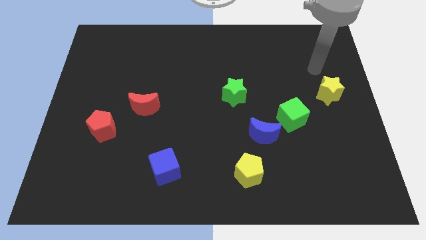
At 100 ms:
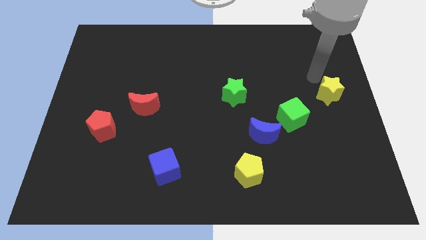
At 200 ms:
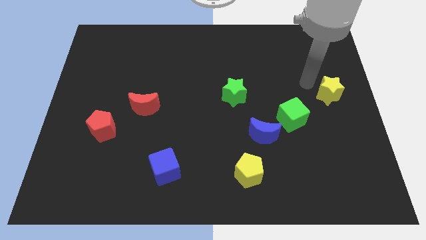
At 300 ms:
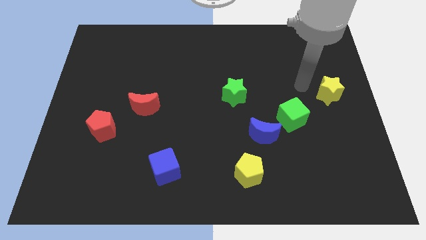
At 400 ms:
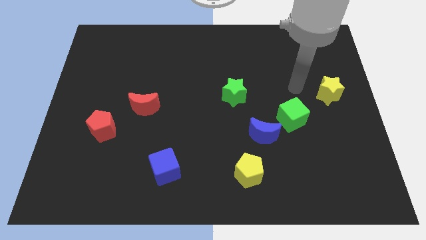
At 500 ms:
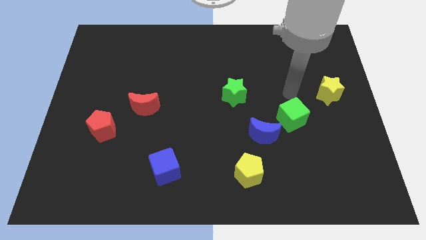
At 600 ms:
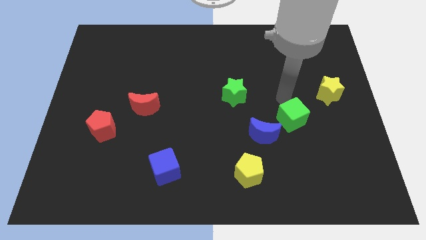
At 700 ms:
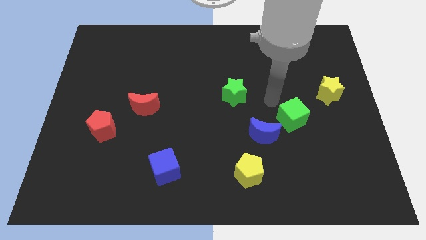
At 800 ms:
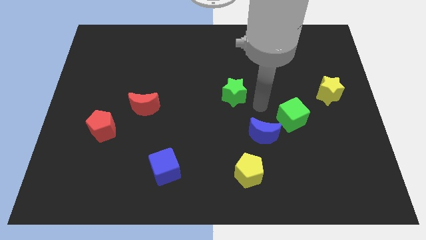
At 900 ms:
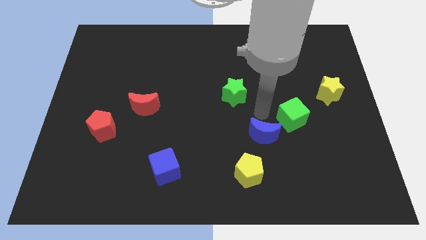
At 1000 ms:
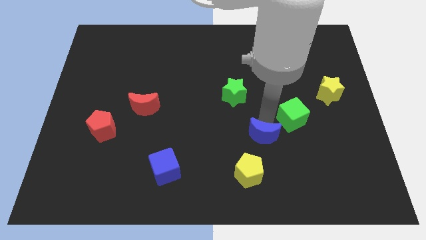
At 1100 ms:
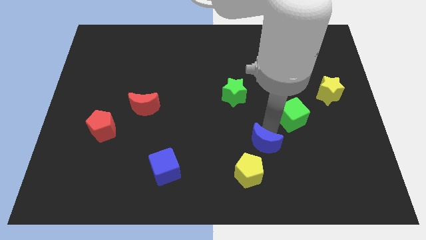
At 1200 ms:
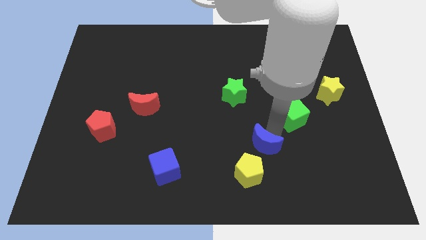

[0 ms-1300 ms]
move the green cube away from the blue moon

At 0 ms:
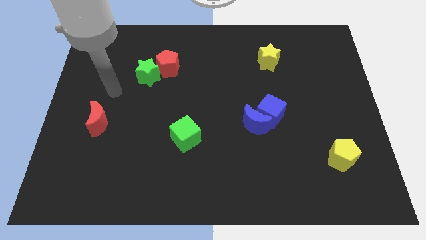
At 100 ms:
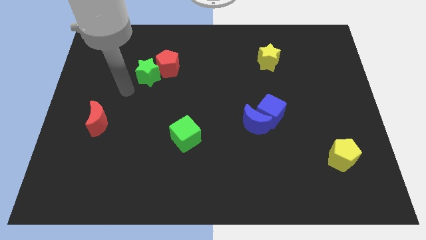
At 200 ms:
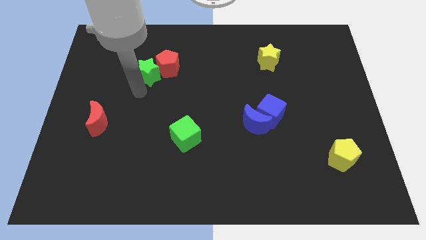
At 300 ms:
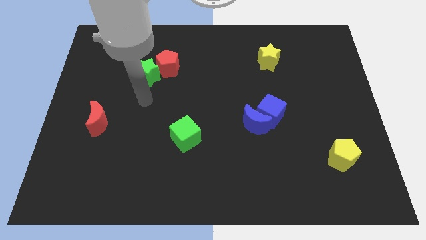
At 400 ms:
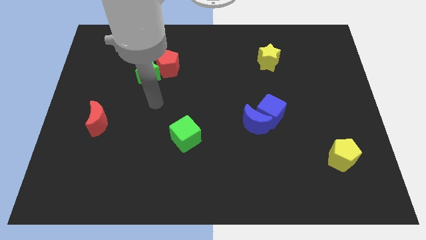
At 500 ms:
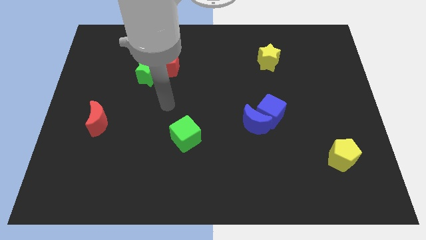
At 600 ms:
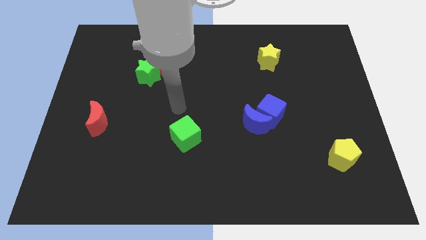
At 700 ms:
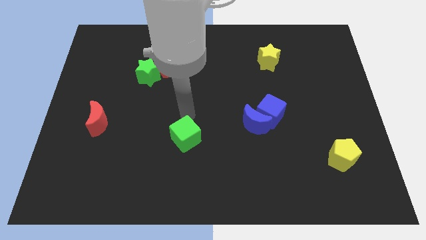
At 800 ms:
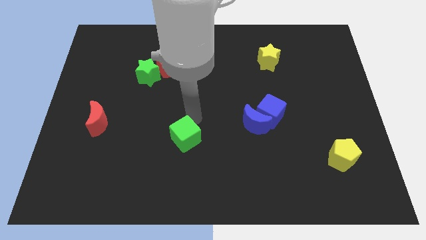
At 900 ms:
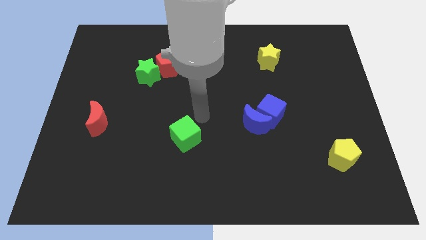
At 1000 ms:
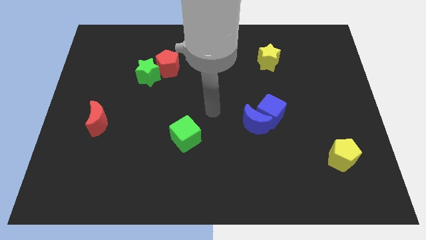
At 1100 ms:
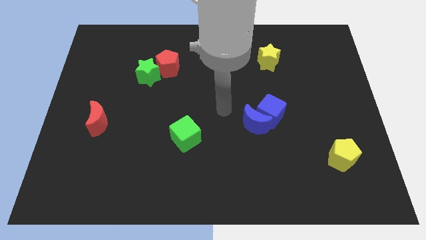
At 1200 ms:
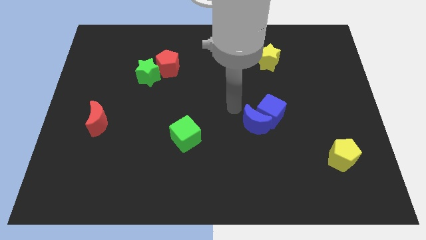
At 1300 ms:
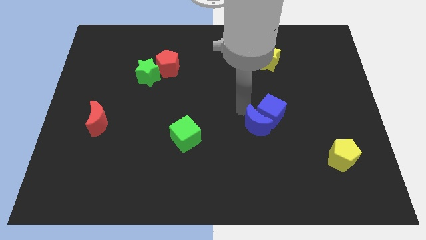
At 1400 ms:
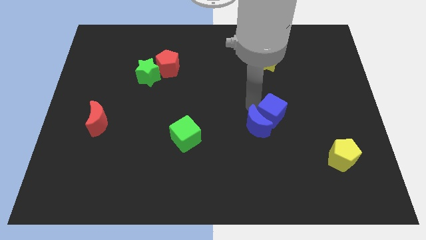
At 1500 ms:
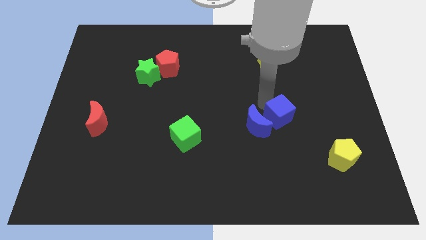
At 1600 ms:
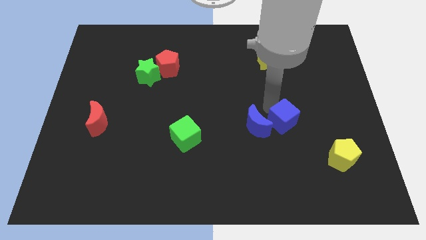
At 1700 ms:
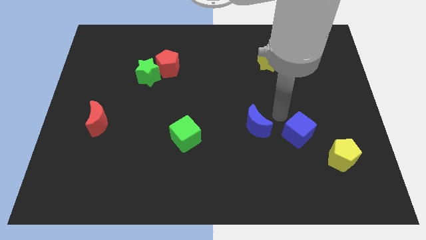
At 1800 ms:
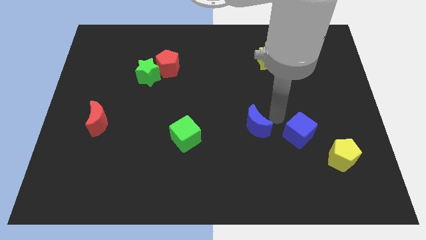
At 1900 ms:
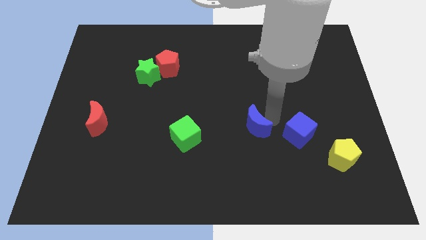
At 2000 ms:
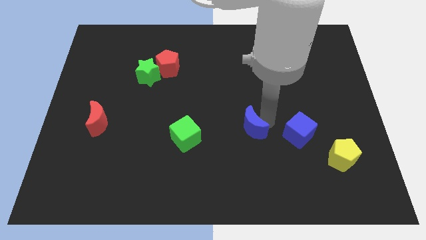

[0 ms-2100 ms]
separate the blue moon from the blue cube

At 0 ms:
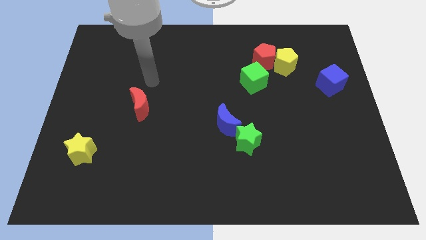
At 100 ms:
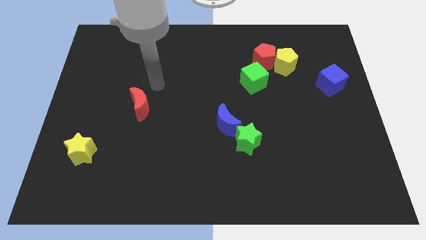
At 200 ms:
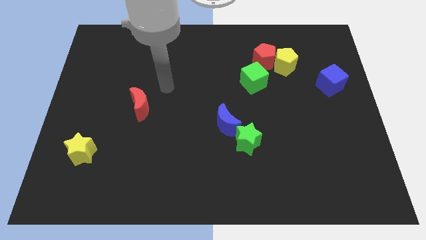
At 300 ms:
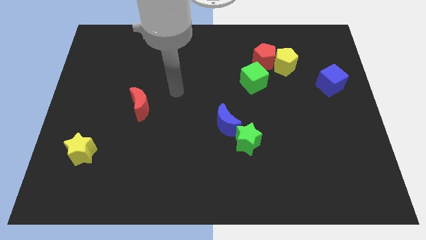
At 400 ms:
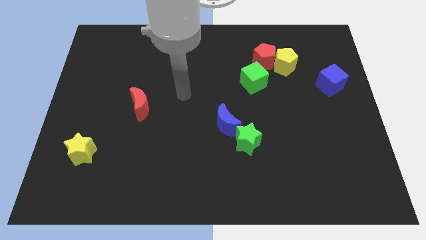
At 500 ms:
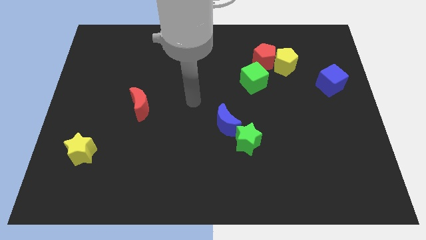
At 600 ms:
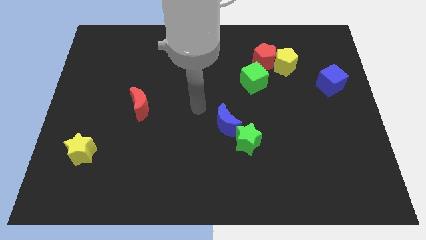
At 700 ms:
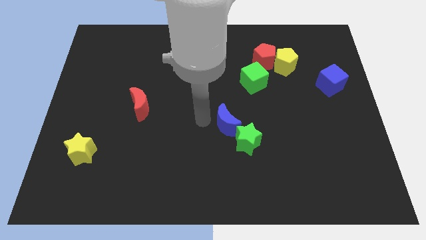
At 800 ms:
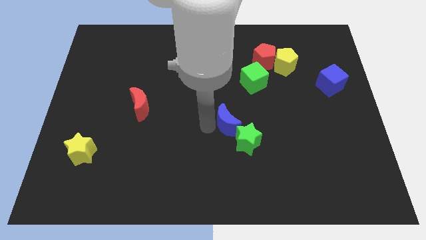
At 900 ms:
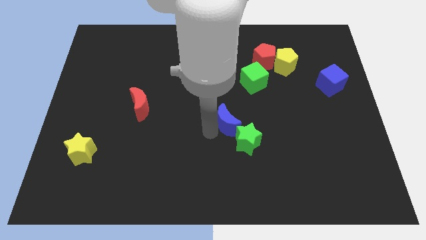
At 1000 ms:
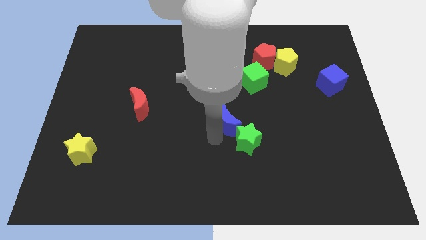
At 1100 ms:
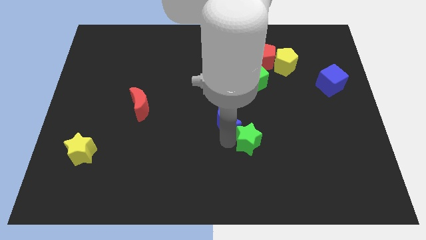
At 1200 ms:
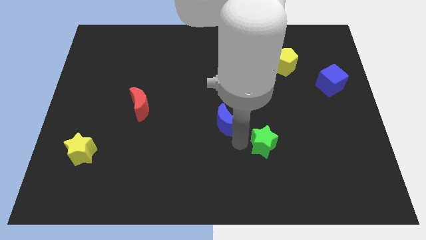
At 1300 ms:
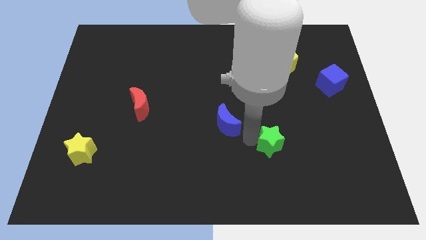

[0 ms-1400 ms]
pull the blue moon apart from the green star

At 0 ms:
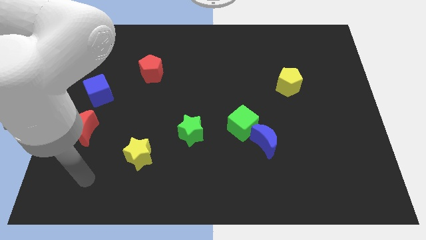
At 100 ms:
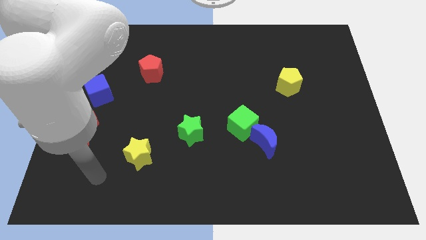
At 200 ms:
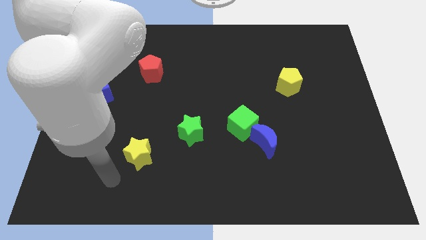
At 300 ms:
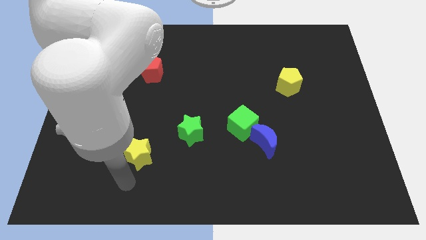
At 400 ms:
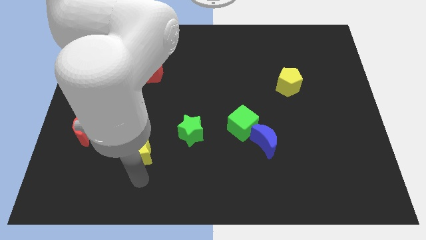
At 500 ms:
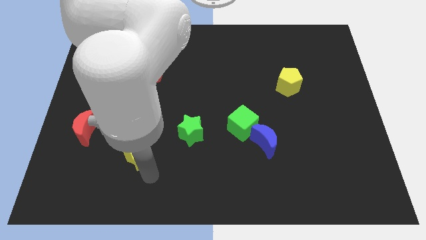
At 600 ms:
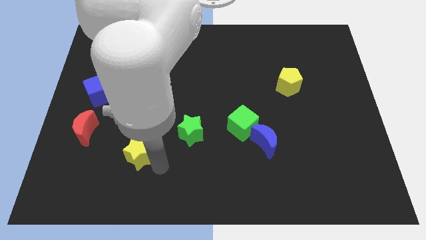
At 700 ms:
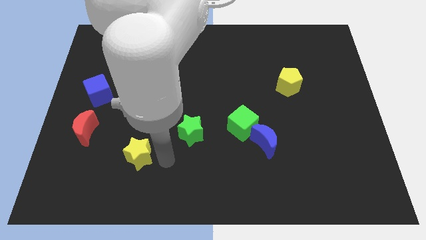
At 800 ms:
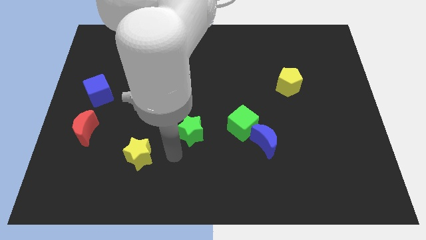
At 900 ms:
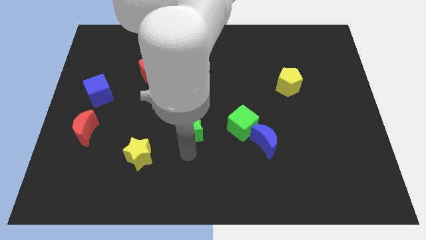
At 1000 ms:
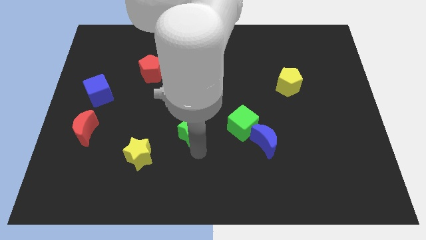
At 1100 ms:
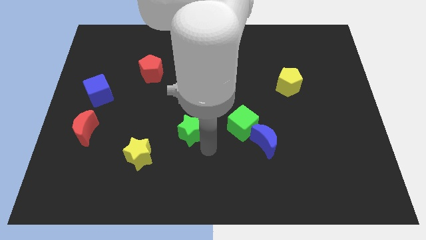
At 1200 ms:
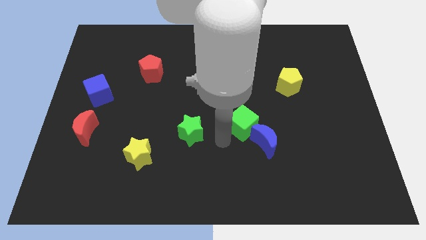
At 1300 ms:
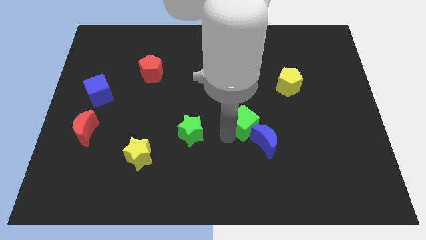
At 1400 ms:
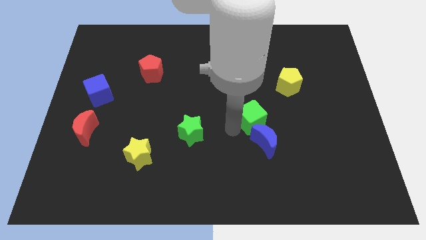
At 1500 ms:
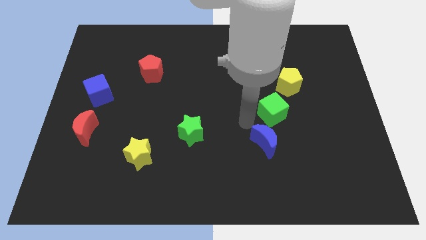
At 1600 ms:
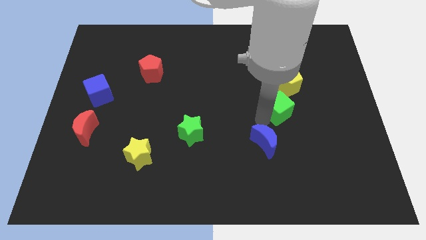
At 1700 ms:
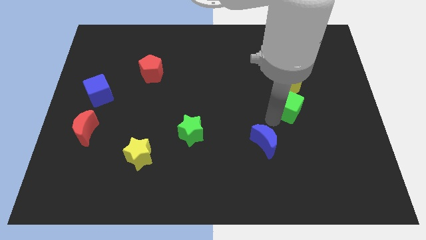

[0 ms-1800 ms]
separate the blue moon from the green cube

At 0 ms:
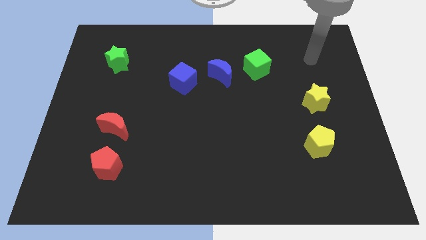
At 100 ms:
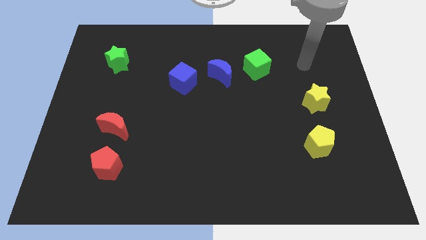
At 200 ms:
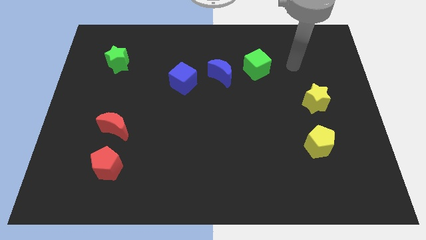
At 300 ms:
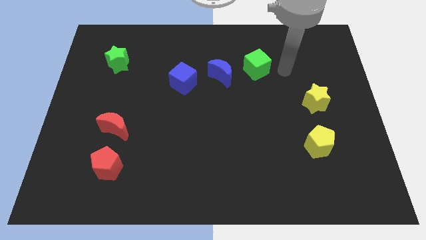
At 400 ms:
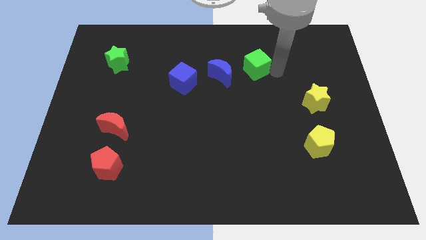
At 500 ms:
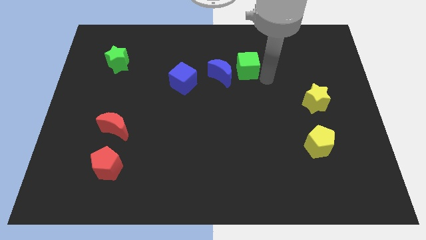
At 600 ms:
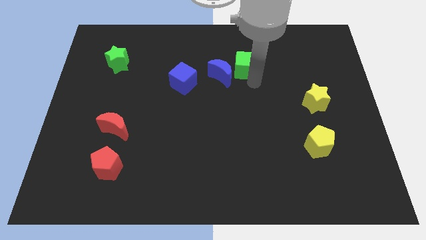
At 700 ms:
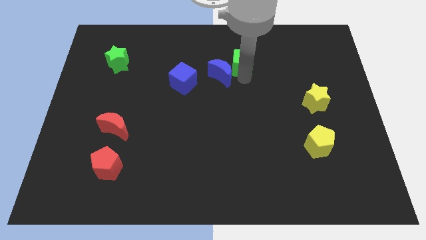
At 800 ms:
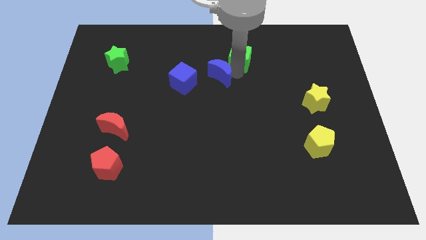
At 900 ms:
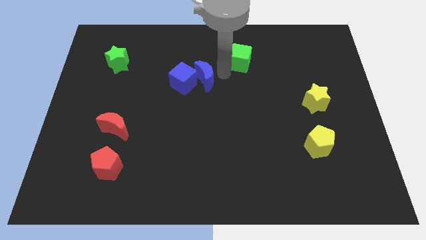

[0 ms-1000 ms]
pull the green cube apart from the blue moon

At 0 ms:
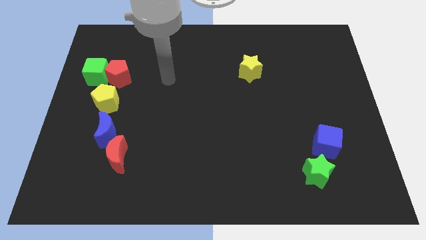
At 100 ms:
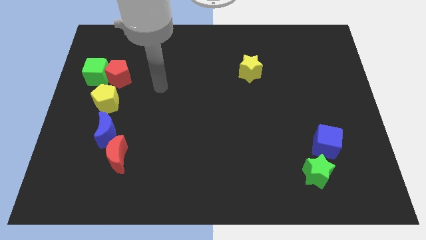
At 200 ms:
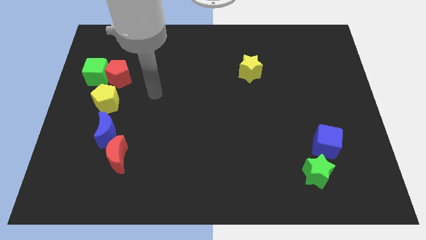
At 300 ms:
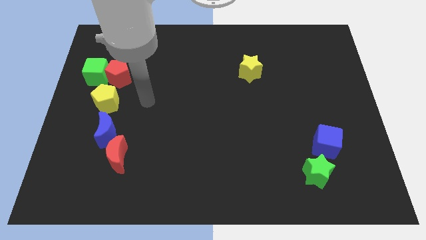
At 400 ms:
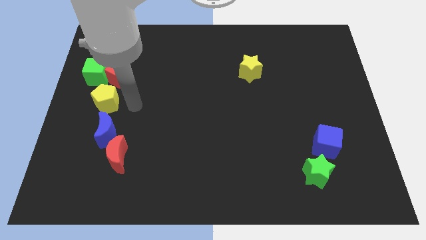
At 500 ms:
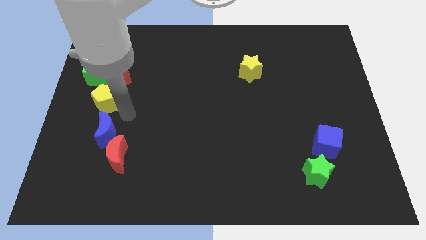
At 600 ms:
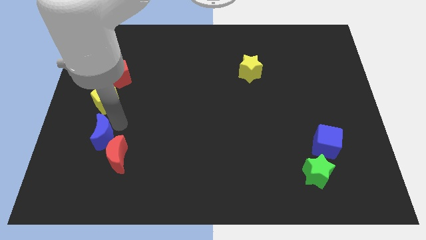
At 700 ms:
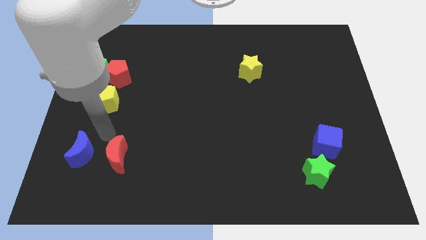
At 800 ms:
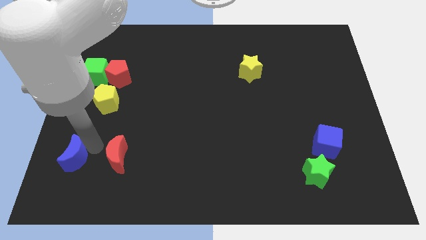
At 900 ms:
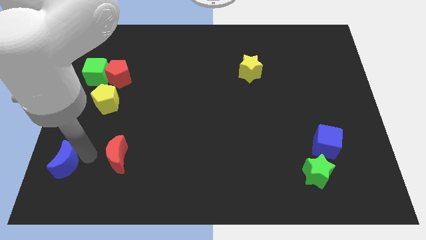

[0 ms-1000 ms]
pull the red moon apart from the blue moon

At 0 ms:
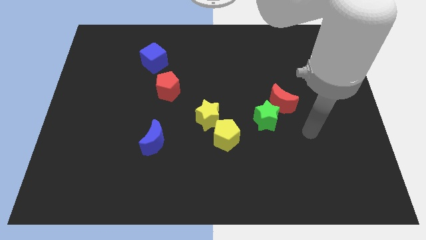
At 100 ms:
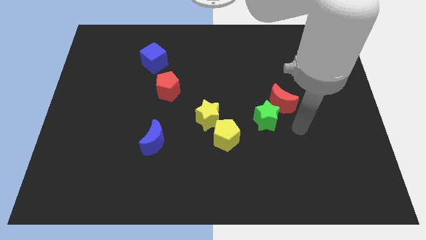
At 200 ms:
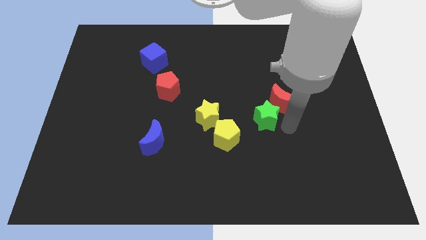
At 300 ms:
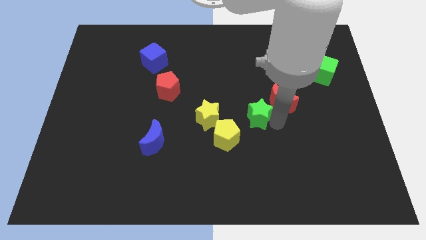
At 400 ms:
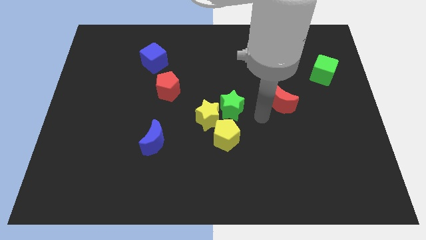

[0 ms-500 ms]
pull the red moon apart from the green star

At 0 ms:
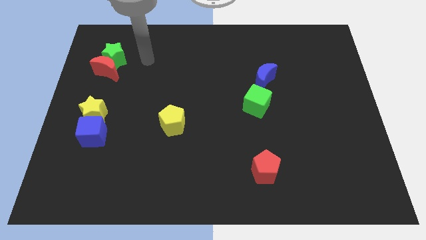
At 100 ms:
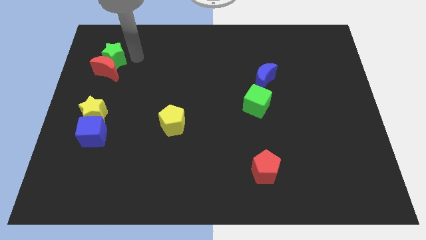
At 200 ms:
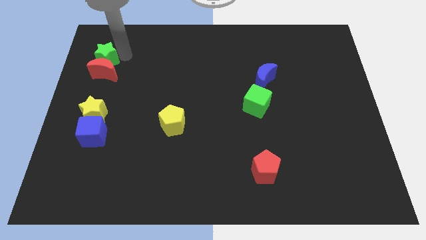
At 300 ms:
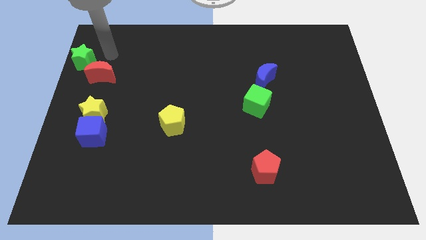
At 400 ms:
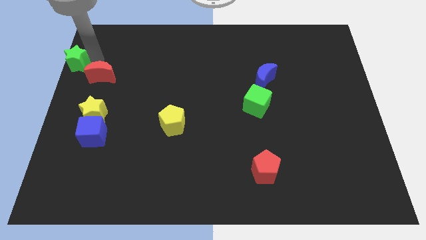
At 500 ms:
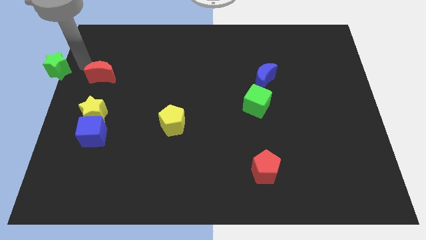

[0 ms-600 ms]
separate the red moon from the green star
